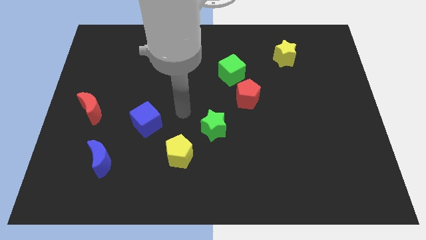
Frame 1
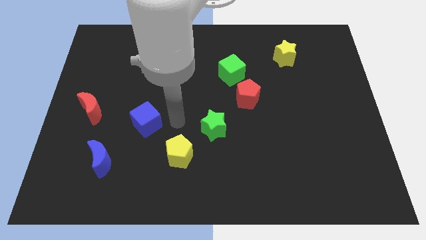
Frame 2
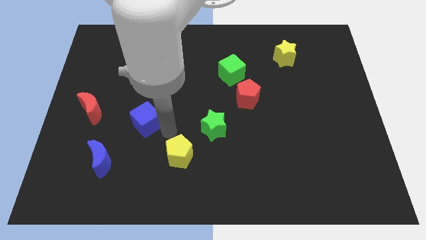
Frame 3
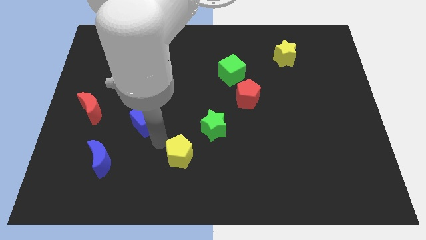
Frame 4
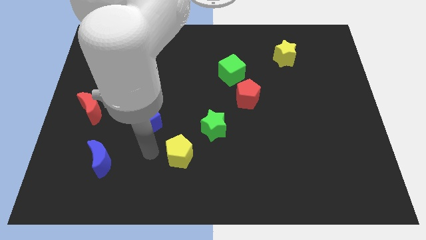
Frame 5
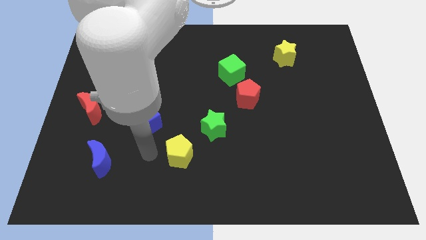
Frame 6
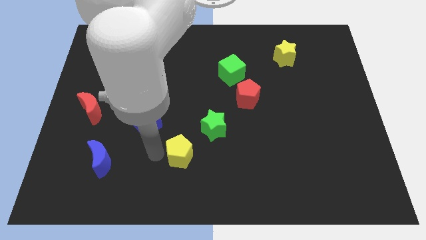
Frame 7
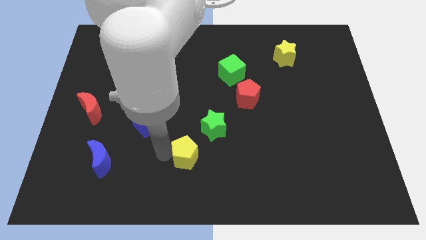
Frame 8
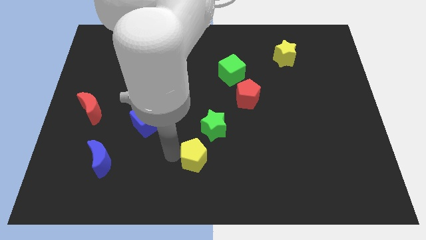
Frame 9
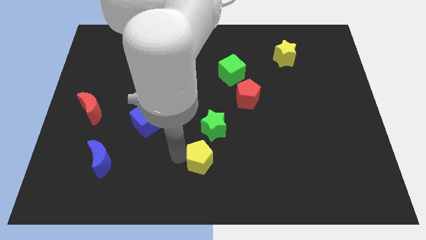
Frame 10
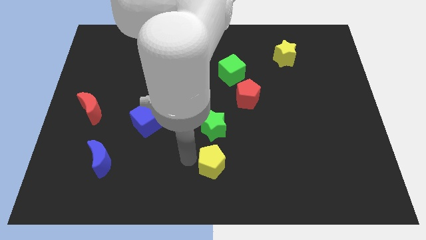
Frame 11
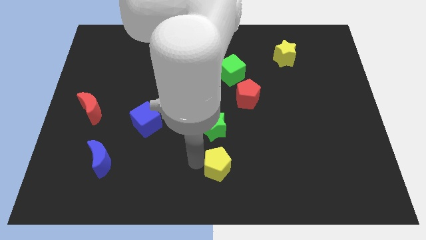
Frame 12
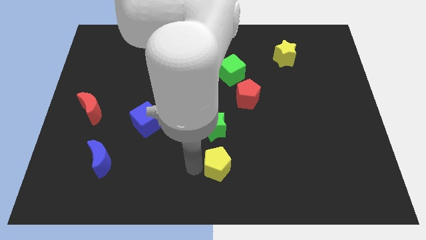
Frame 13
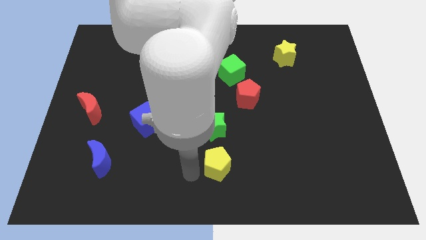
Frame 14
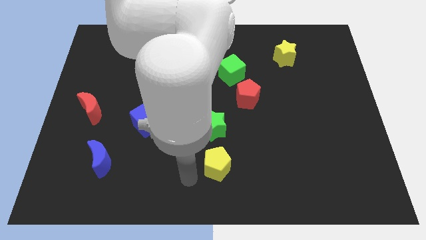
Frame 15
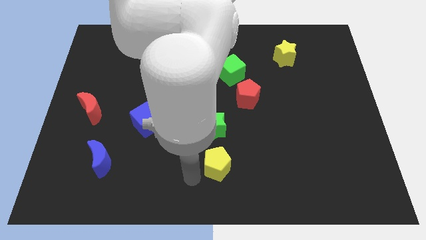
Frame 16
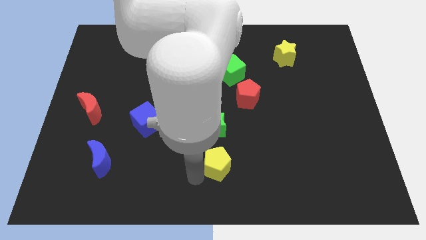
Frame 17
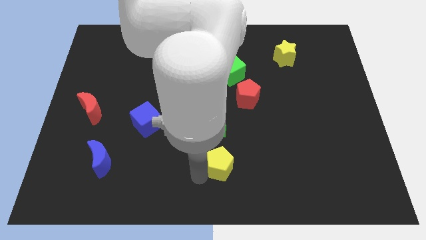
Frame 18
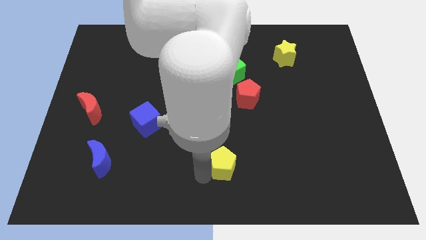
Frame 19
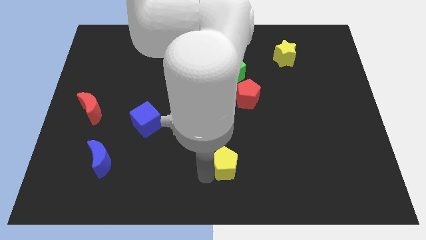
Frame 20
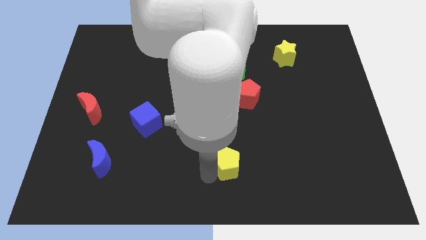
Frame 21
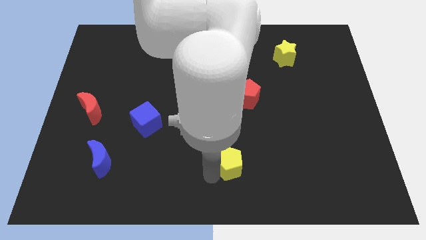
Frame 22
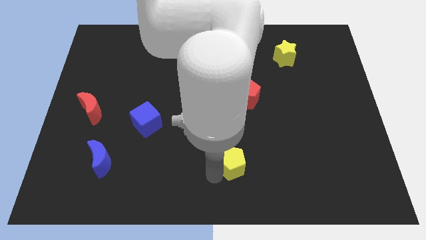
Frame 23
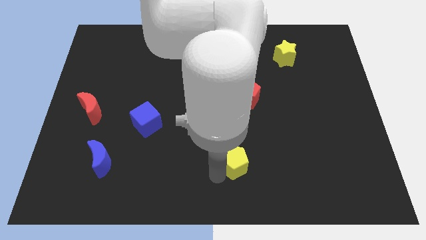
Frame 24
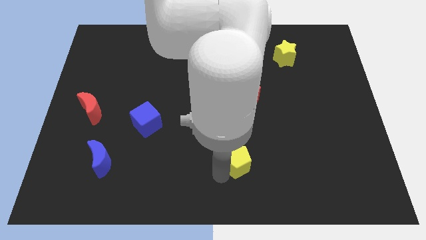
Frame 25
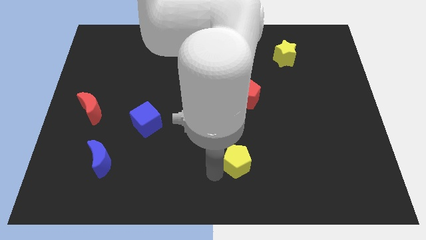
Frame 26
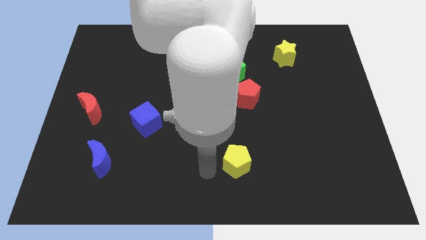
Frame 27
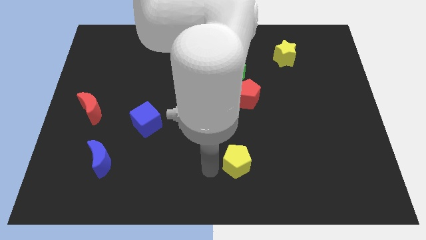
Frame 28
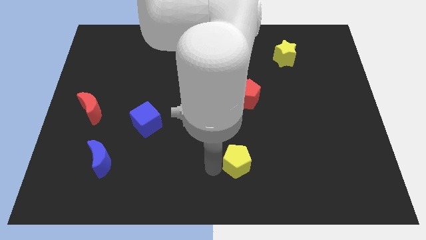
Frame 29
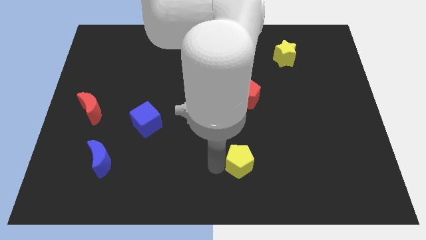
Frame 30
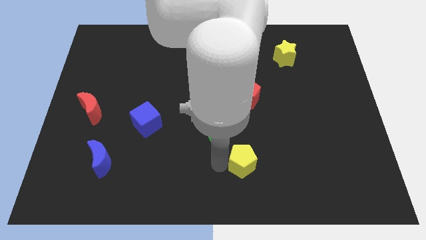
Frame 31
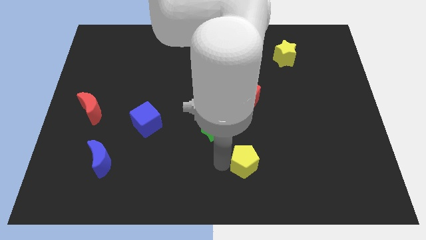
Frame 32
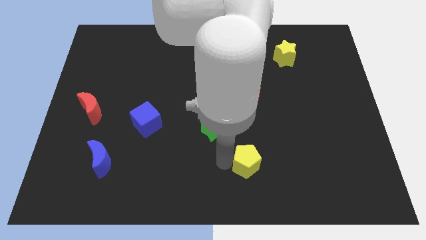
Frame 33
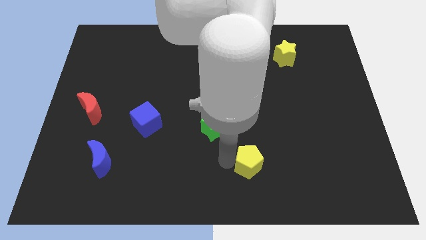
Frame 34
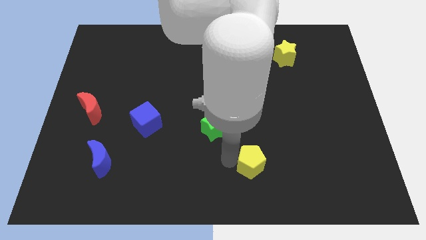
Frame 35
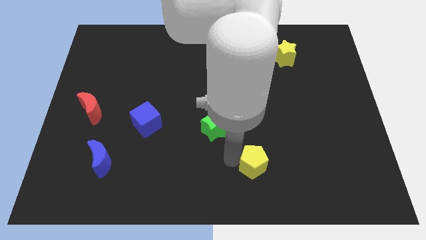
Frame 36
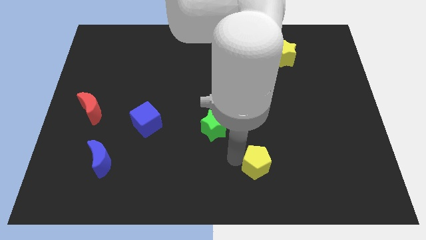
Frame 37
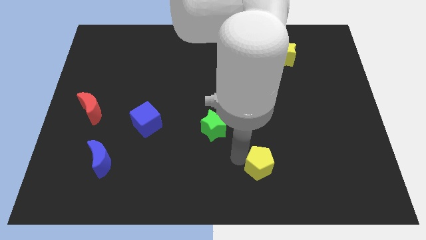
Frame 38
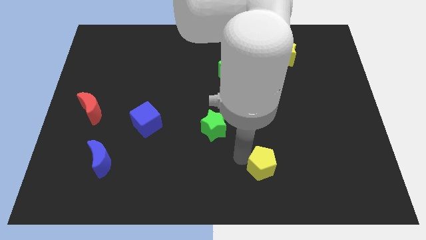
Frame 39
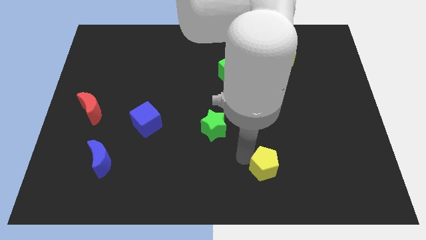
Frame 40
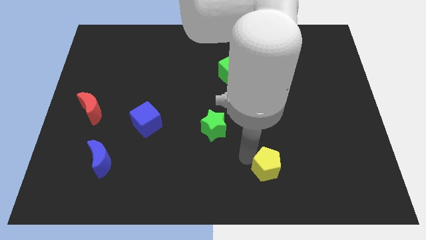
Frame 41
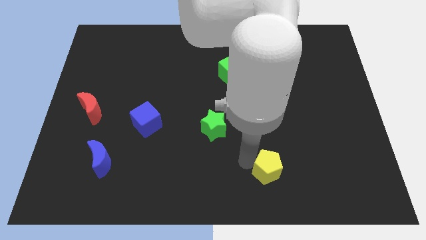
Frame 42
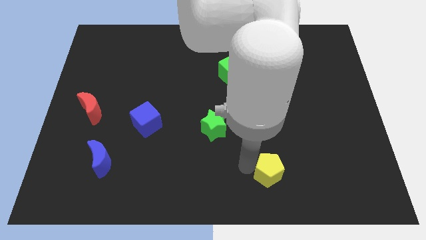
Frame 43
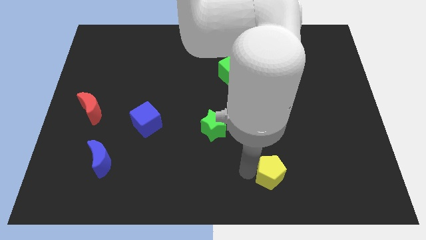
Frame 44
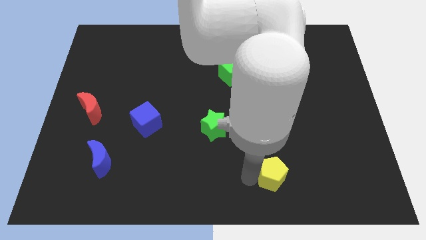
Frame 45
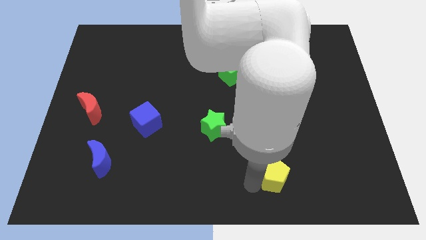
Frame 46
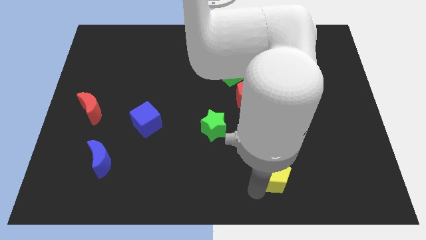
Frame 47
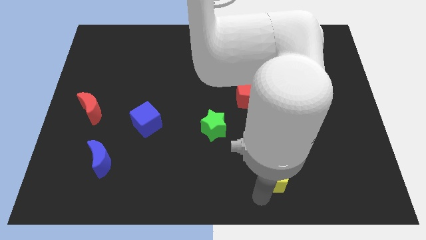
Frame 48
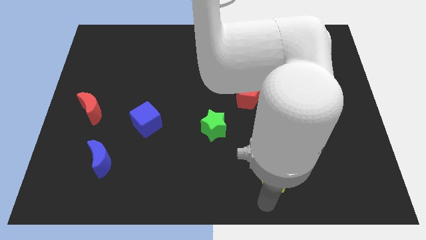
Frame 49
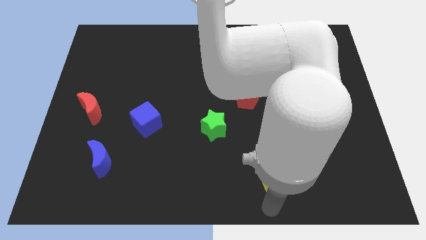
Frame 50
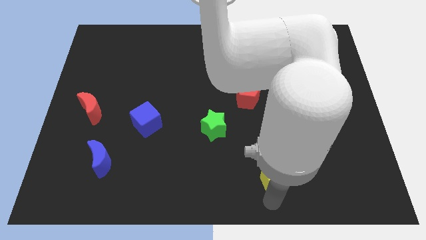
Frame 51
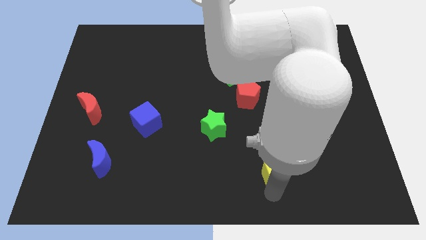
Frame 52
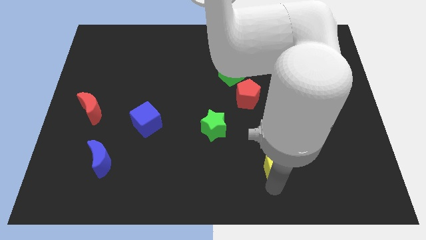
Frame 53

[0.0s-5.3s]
move the yellow pentagon right

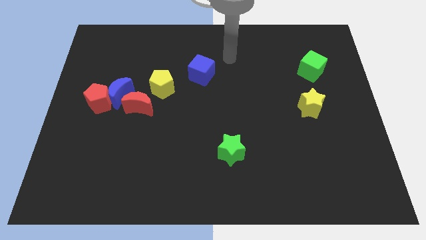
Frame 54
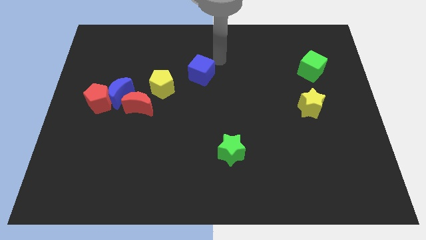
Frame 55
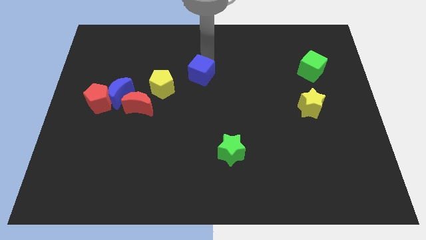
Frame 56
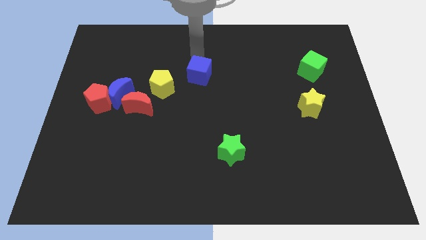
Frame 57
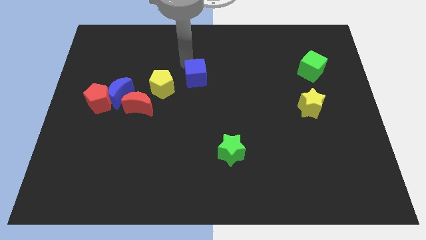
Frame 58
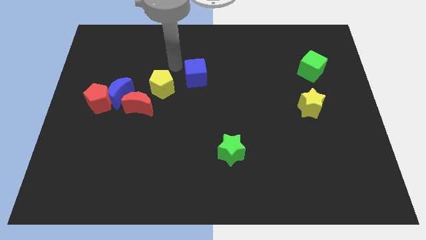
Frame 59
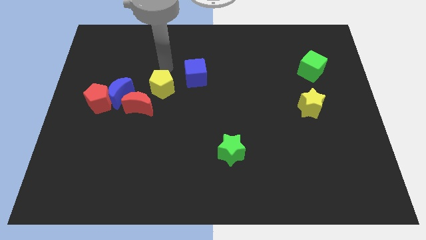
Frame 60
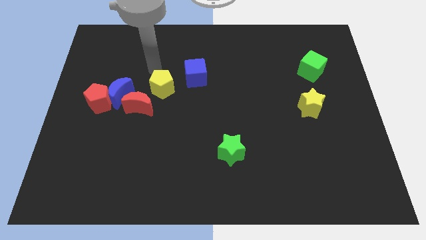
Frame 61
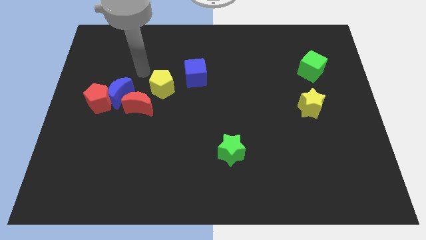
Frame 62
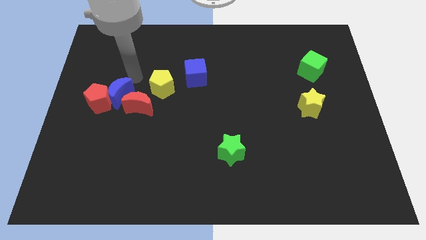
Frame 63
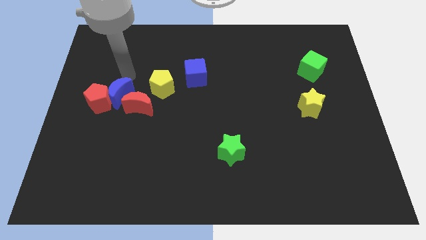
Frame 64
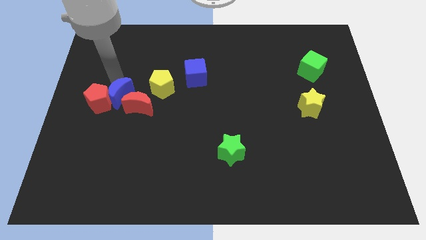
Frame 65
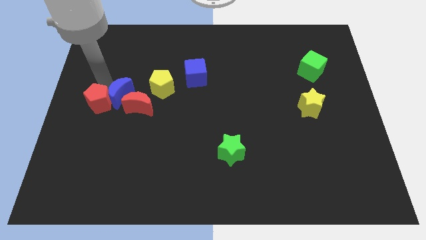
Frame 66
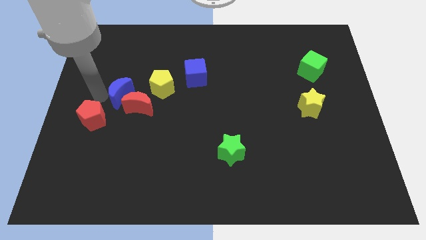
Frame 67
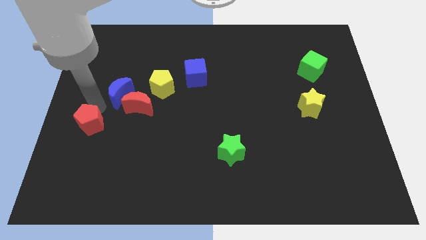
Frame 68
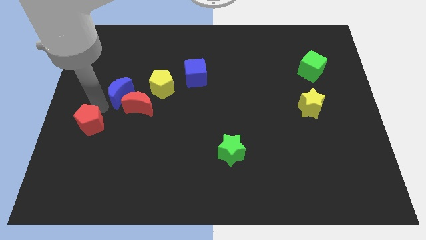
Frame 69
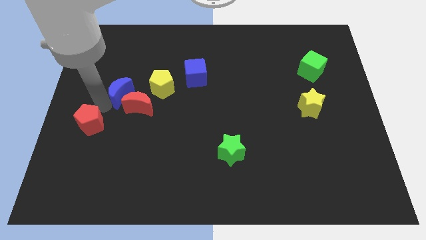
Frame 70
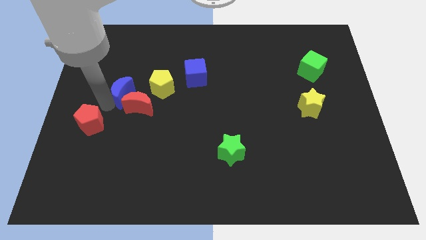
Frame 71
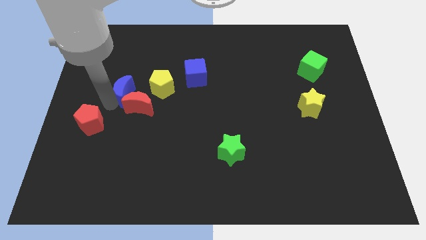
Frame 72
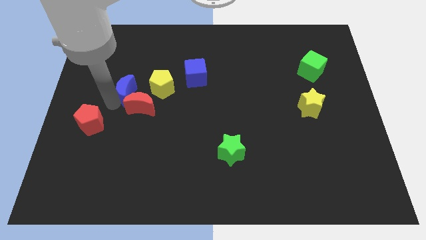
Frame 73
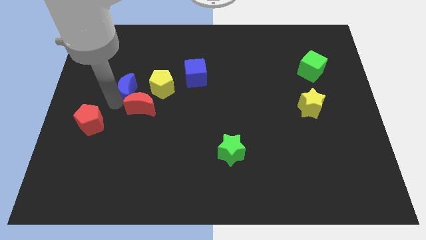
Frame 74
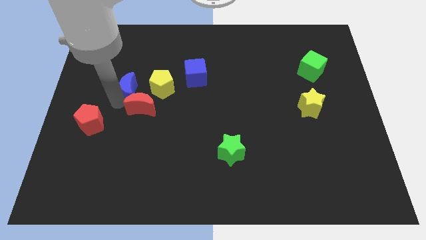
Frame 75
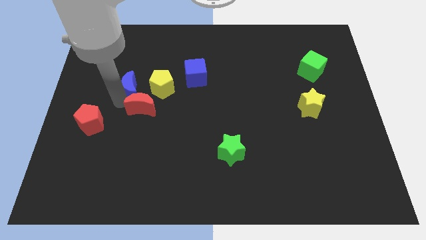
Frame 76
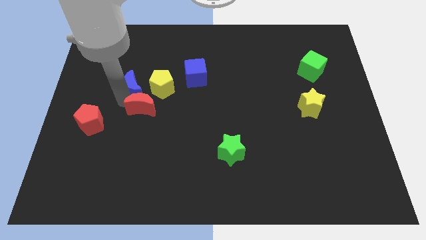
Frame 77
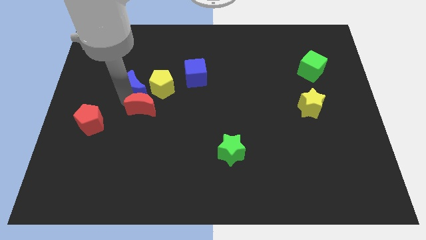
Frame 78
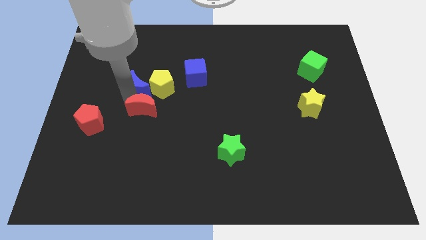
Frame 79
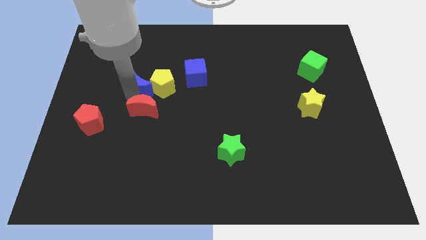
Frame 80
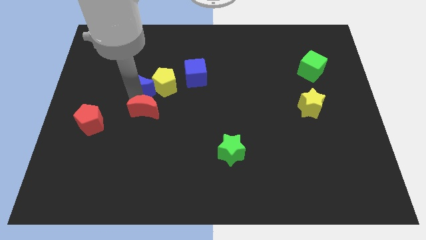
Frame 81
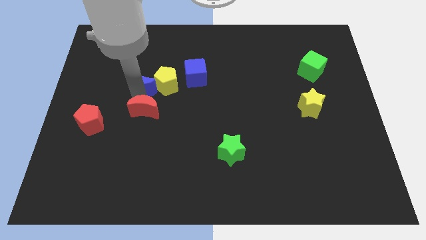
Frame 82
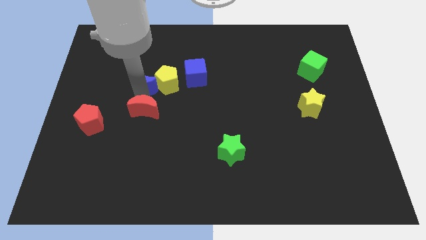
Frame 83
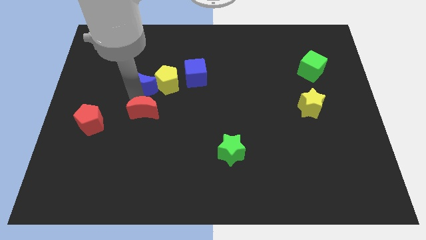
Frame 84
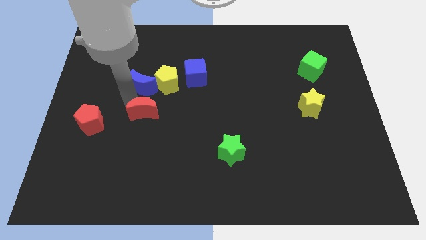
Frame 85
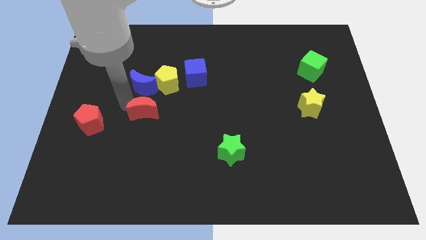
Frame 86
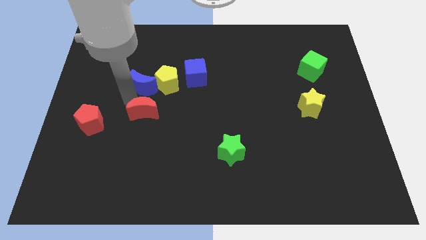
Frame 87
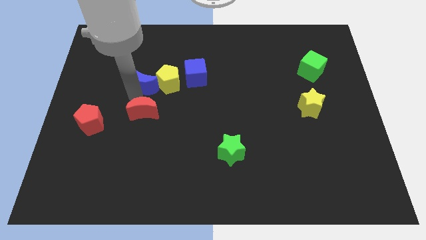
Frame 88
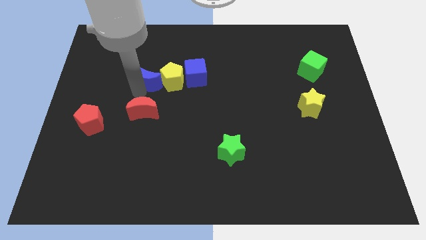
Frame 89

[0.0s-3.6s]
slightly push the blue moon up and right
